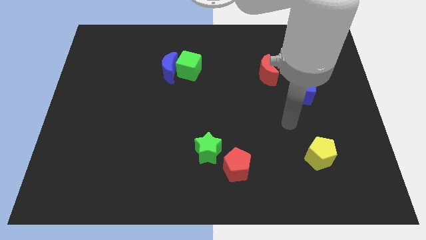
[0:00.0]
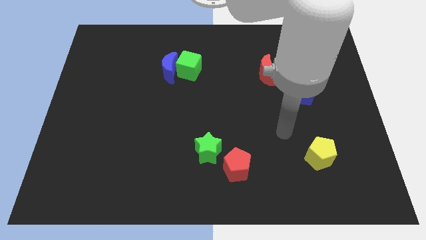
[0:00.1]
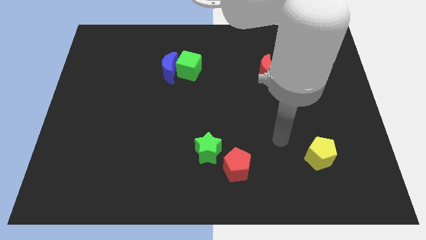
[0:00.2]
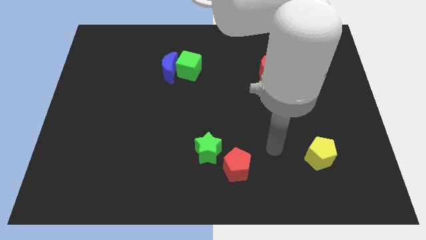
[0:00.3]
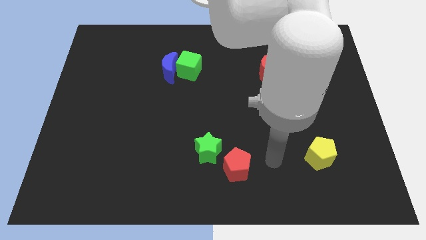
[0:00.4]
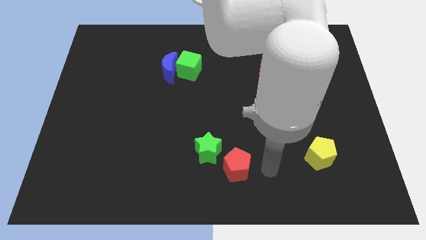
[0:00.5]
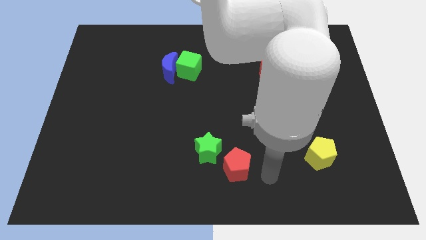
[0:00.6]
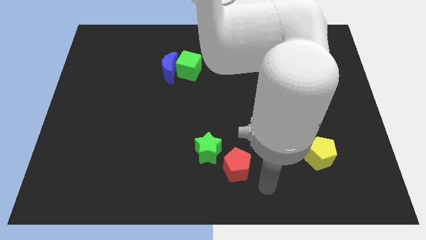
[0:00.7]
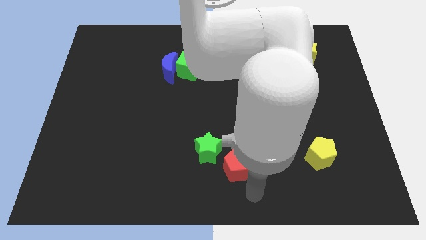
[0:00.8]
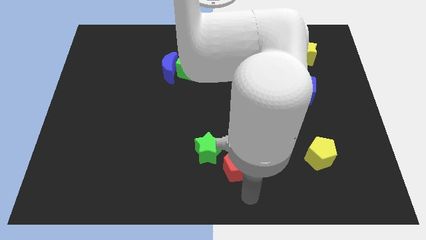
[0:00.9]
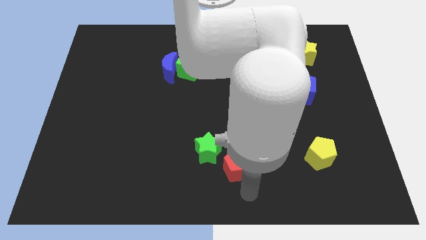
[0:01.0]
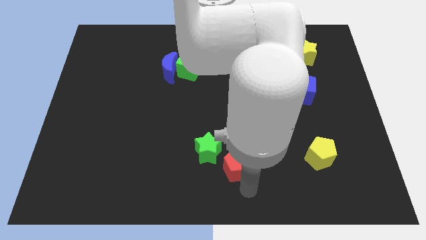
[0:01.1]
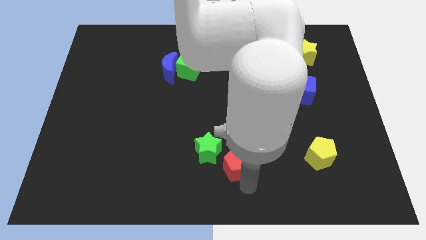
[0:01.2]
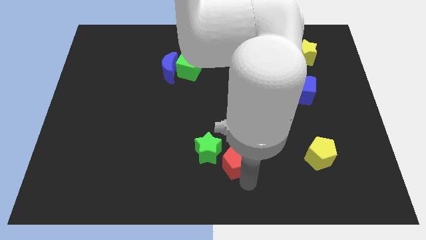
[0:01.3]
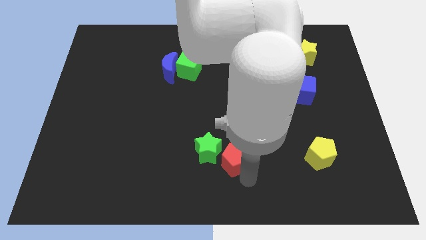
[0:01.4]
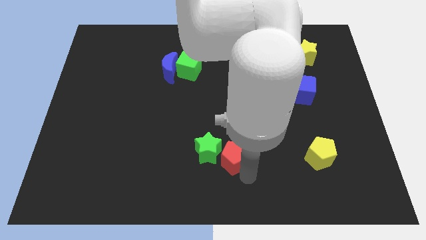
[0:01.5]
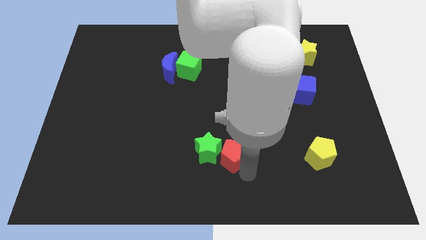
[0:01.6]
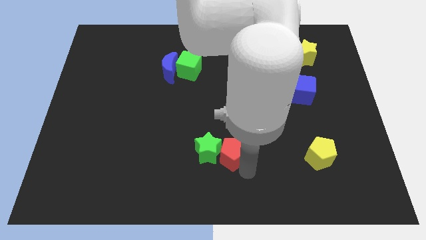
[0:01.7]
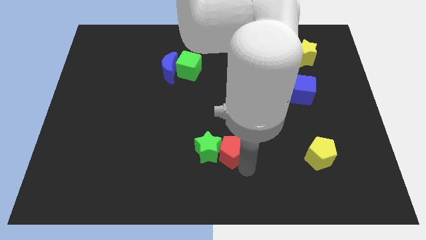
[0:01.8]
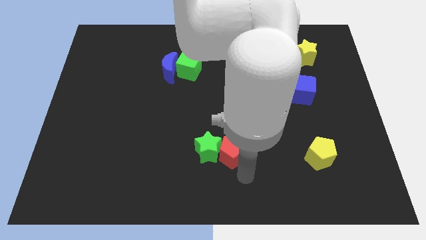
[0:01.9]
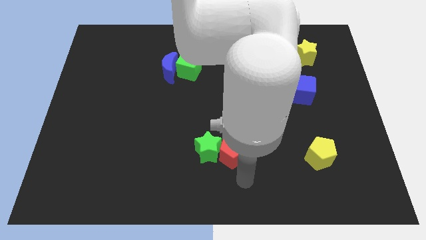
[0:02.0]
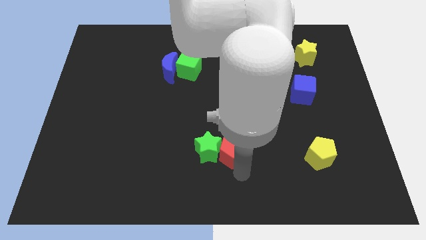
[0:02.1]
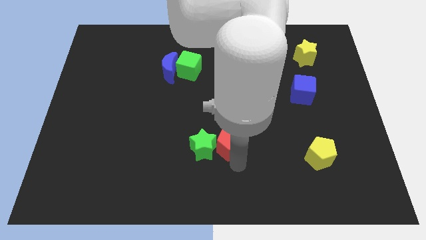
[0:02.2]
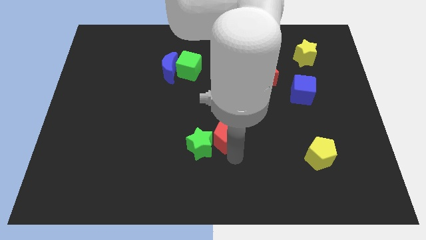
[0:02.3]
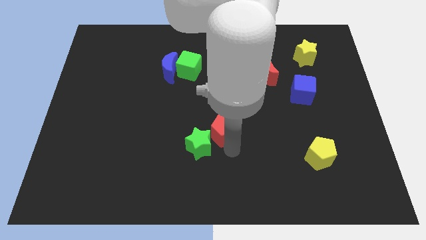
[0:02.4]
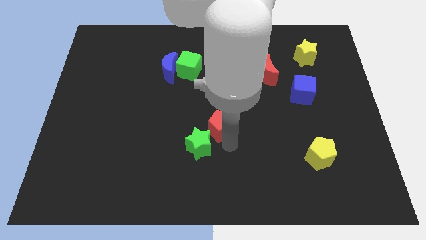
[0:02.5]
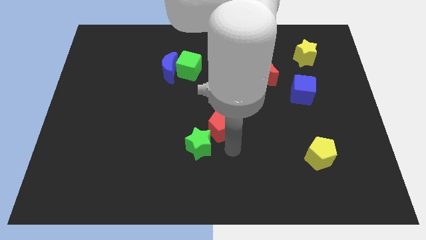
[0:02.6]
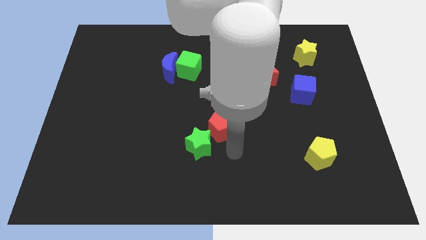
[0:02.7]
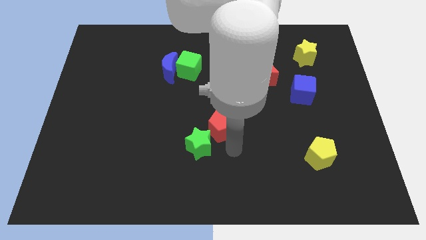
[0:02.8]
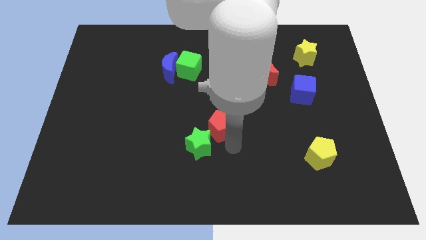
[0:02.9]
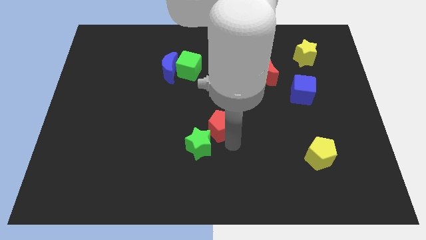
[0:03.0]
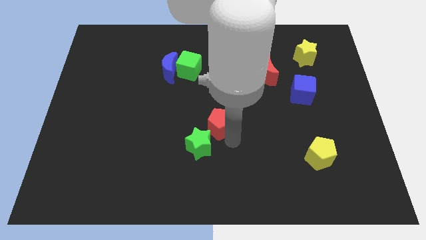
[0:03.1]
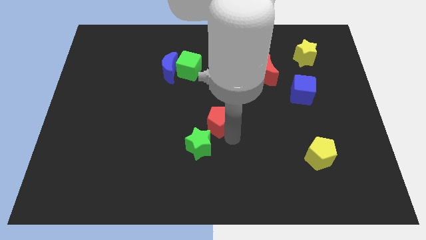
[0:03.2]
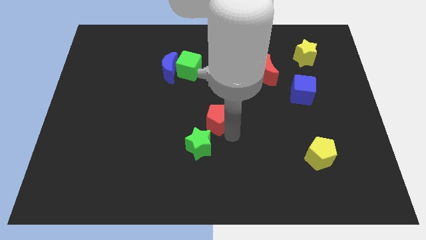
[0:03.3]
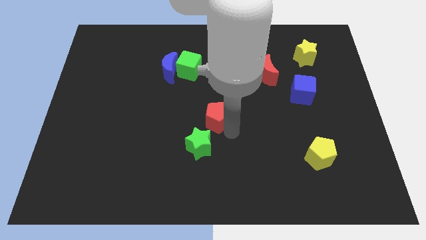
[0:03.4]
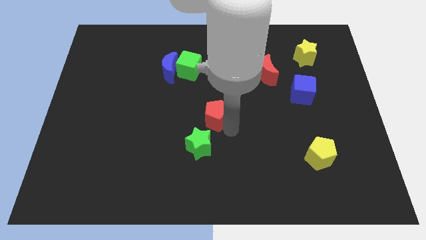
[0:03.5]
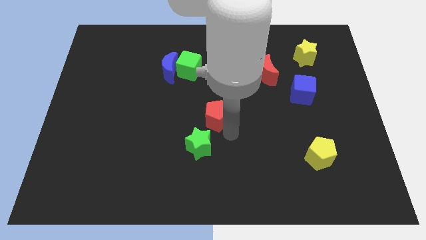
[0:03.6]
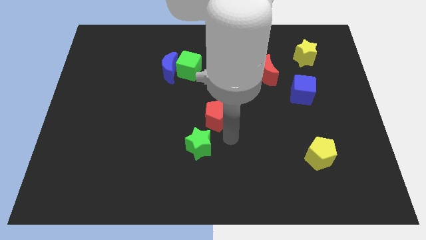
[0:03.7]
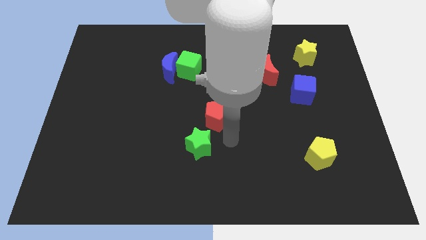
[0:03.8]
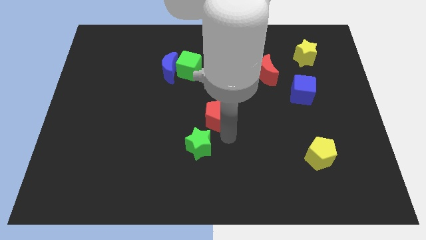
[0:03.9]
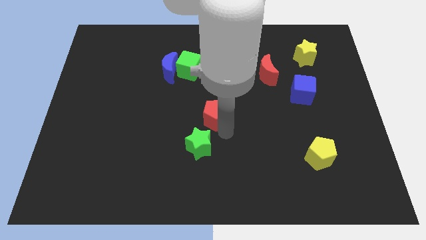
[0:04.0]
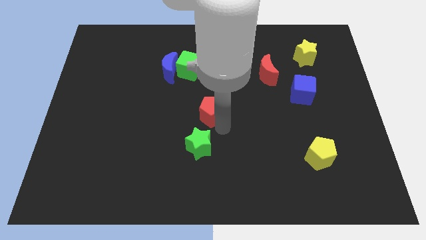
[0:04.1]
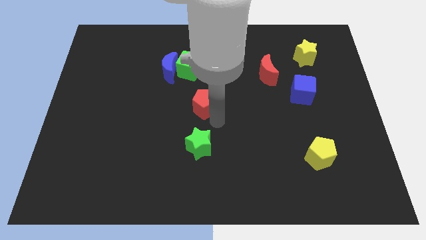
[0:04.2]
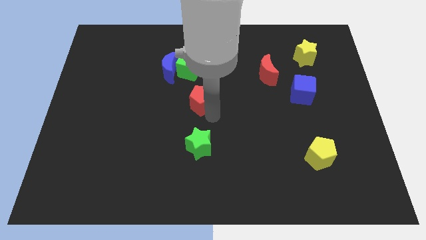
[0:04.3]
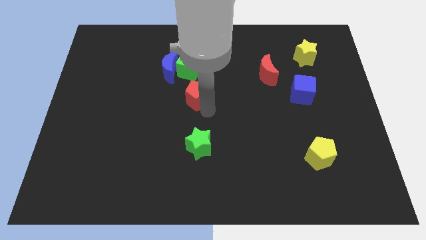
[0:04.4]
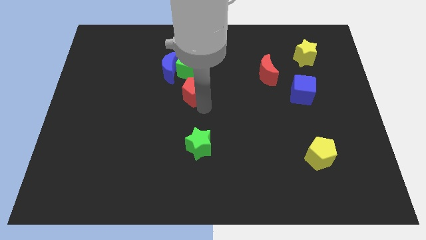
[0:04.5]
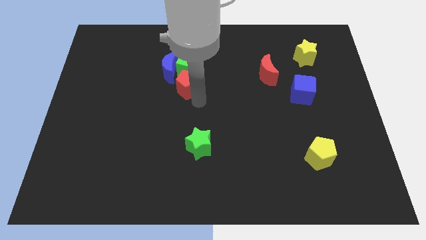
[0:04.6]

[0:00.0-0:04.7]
push the red pentagon towards the green cube

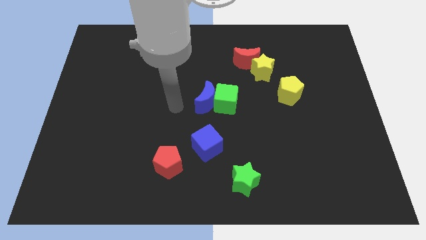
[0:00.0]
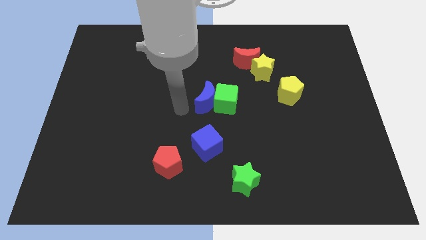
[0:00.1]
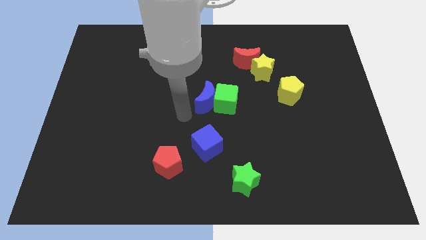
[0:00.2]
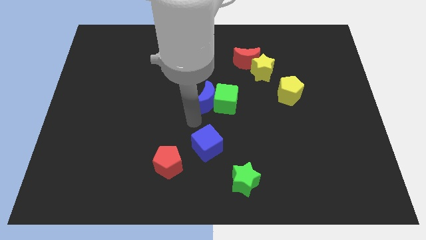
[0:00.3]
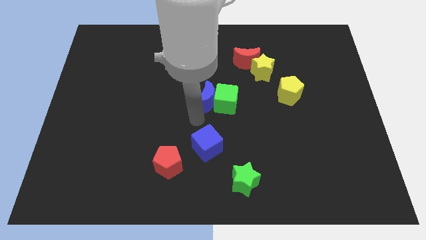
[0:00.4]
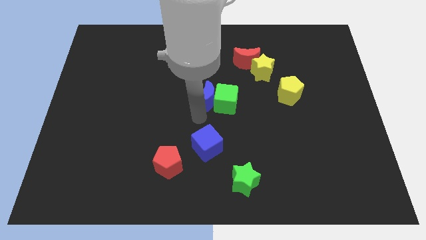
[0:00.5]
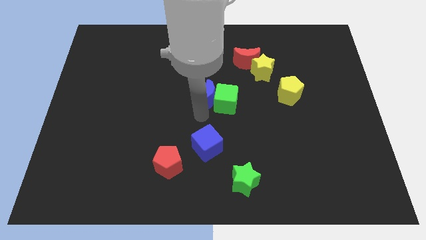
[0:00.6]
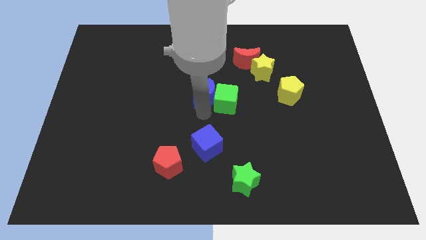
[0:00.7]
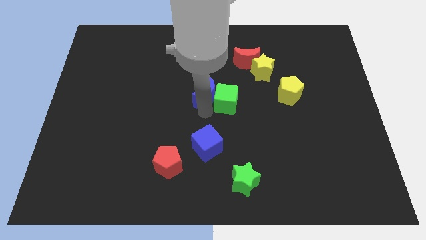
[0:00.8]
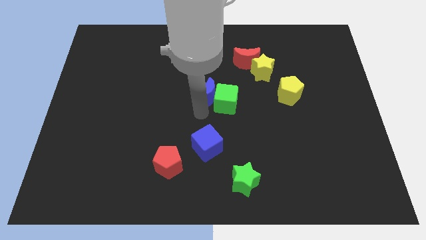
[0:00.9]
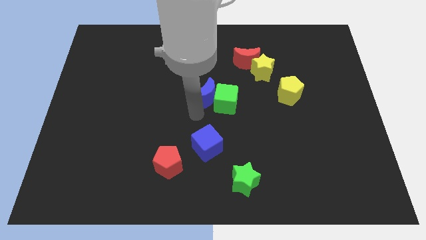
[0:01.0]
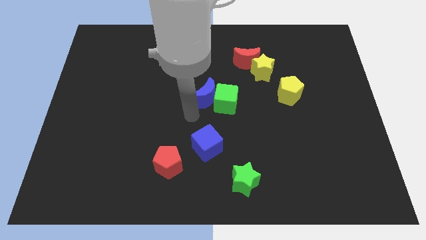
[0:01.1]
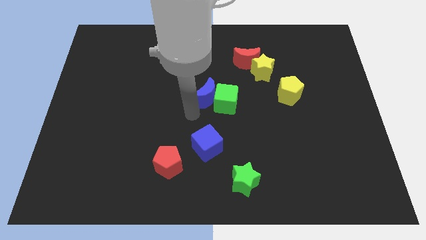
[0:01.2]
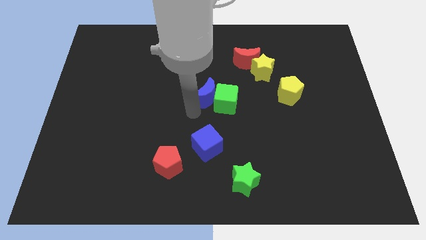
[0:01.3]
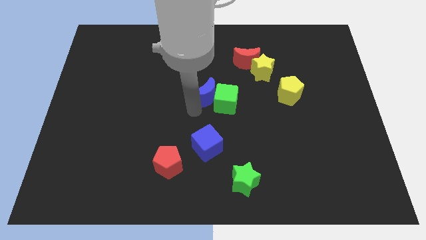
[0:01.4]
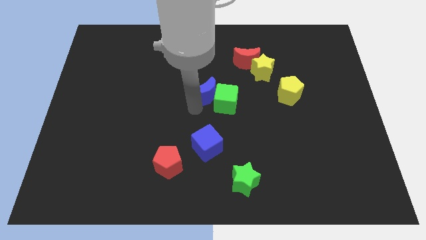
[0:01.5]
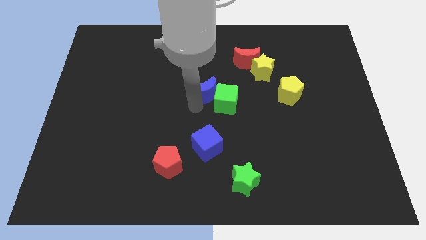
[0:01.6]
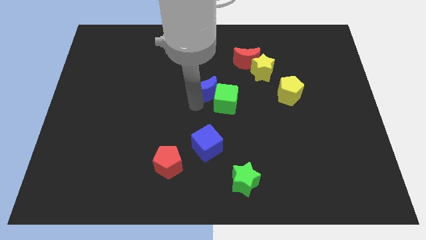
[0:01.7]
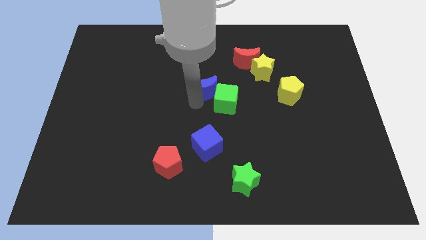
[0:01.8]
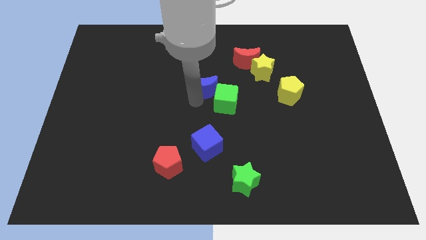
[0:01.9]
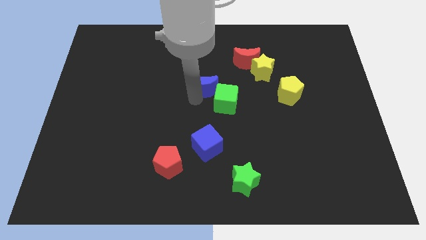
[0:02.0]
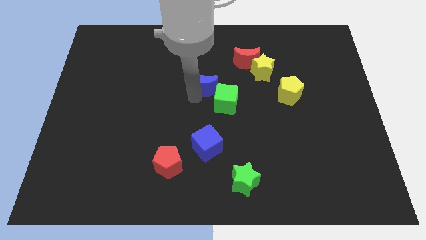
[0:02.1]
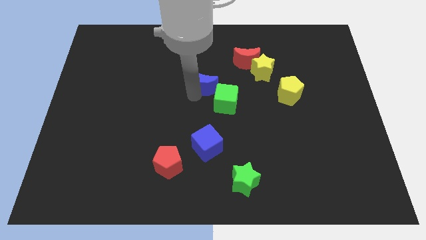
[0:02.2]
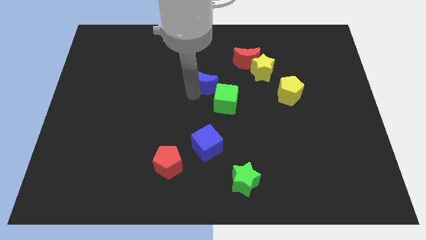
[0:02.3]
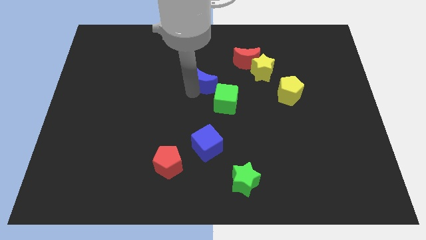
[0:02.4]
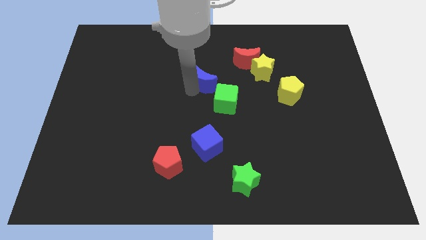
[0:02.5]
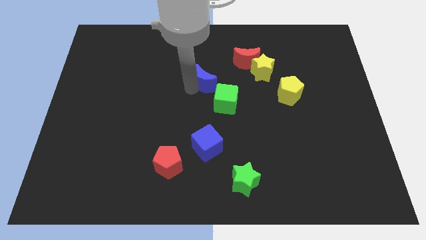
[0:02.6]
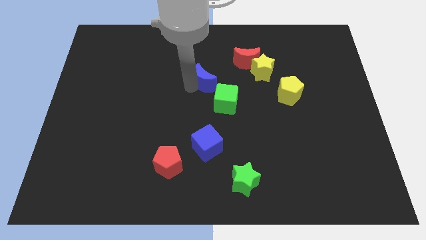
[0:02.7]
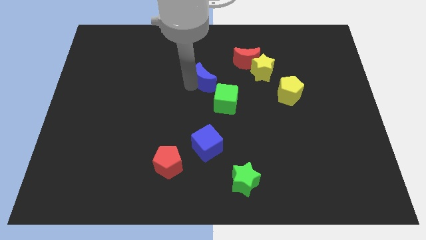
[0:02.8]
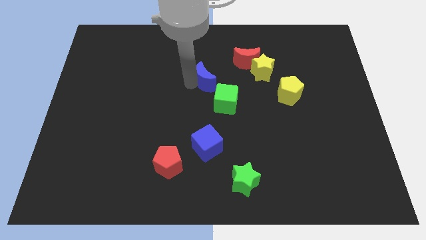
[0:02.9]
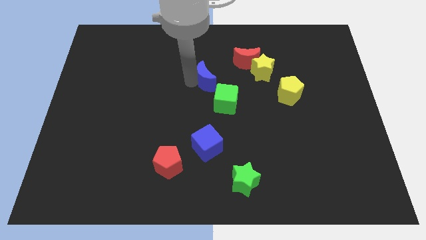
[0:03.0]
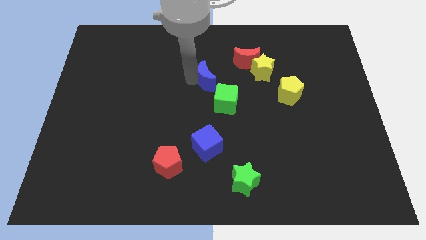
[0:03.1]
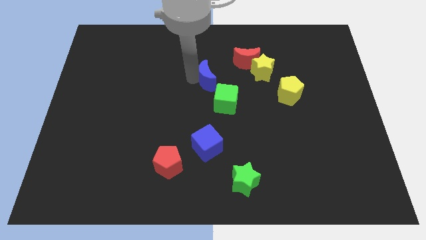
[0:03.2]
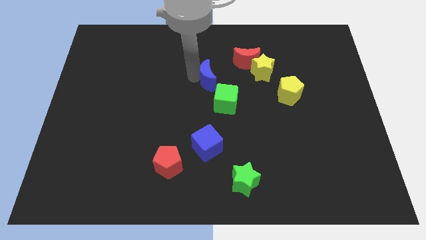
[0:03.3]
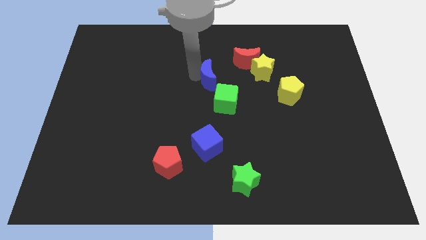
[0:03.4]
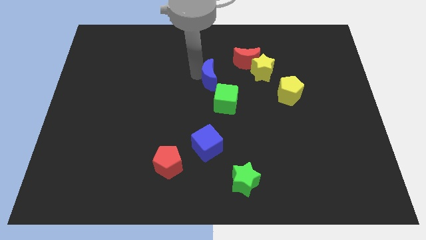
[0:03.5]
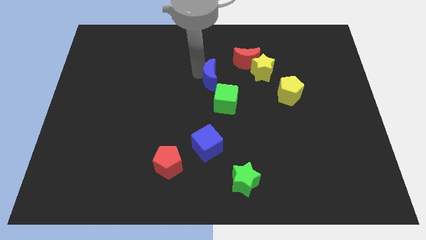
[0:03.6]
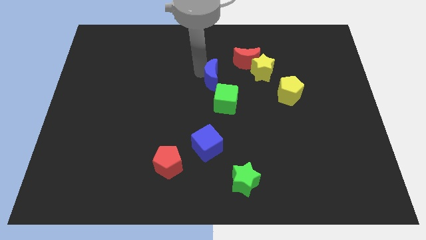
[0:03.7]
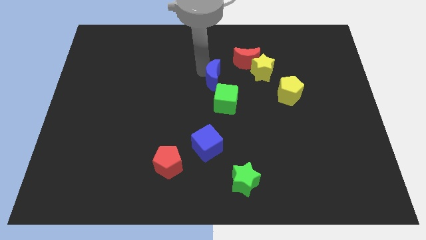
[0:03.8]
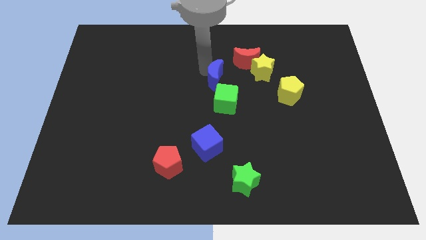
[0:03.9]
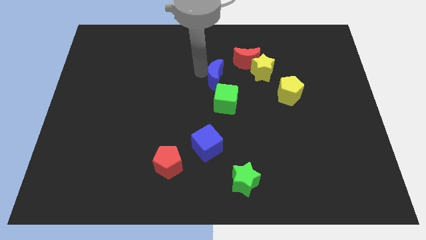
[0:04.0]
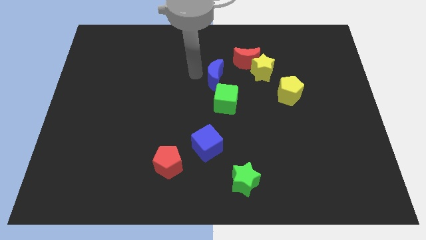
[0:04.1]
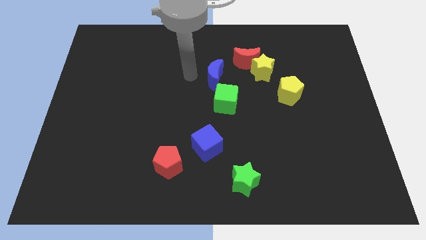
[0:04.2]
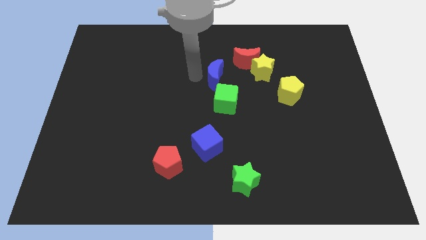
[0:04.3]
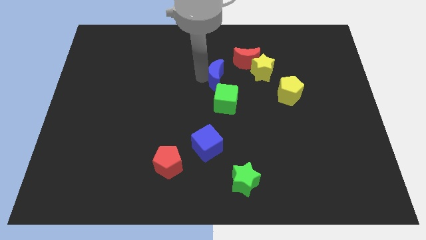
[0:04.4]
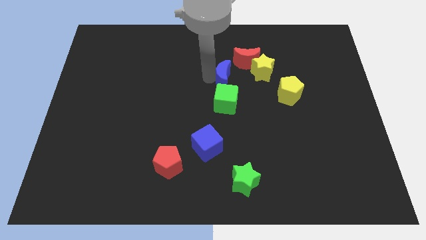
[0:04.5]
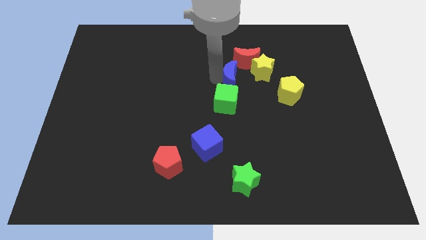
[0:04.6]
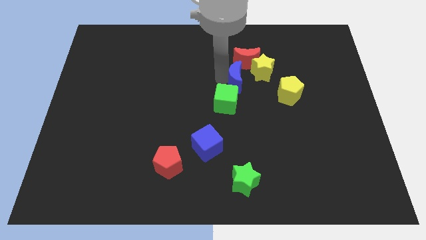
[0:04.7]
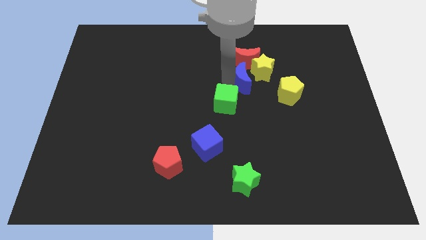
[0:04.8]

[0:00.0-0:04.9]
push the blue moon close to the yellow star
